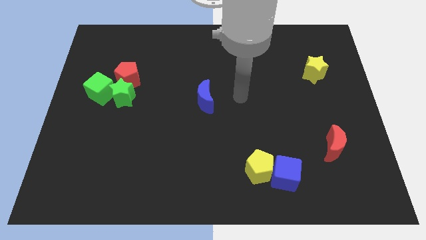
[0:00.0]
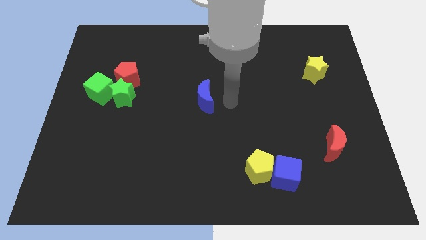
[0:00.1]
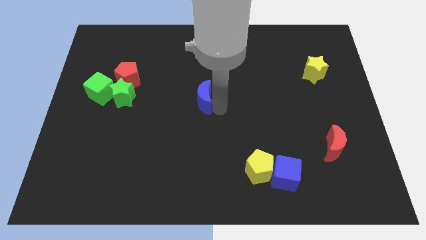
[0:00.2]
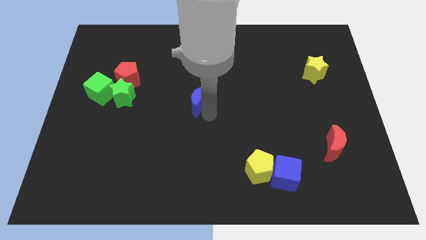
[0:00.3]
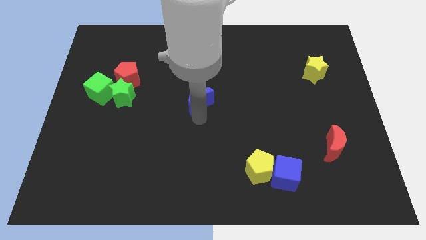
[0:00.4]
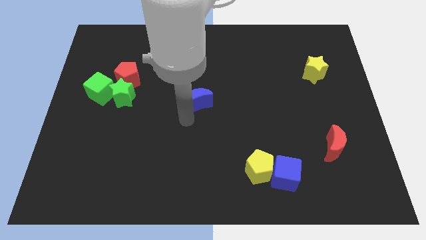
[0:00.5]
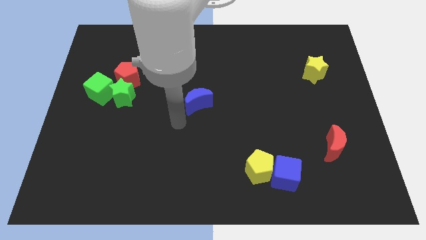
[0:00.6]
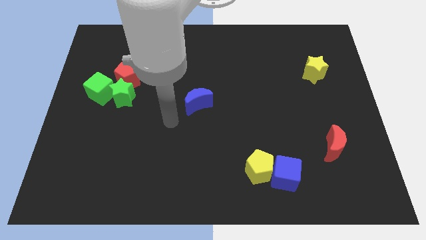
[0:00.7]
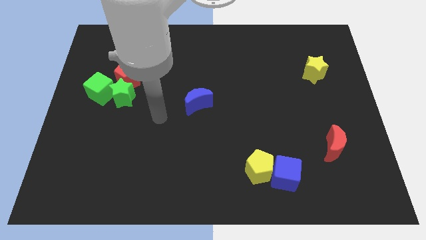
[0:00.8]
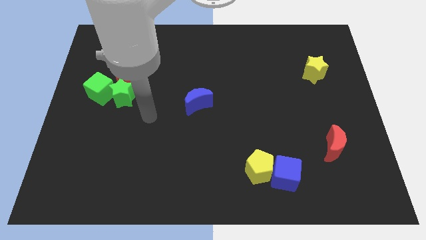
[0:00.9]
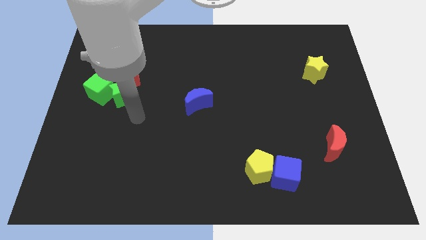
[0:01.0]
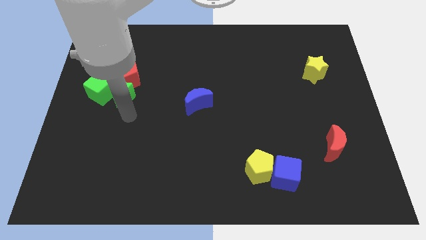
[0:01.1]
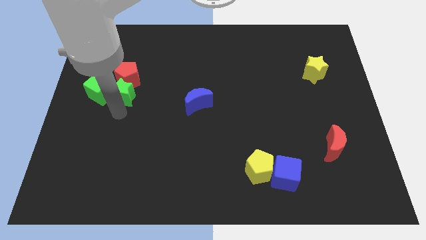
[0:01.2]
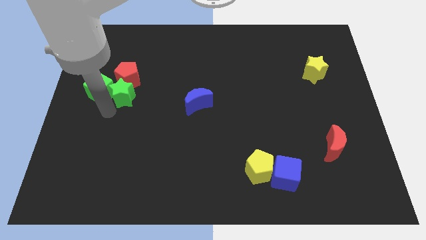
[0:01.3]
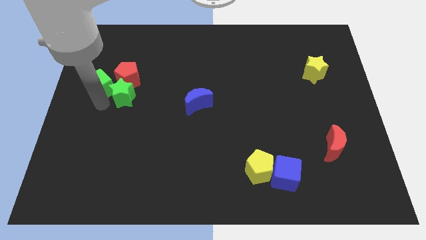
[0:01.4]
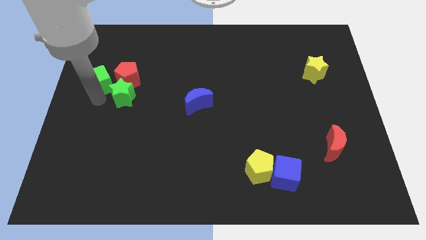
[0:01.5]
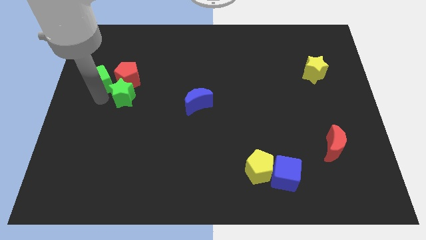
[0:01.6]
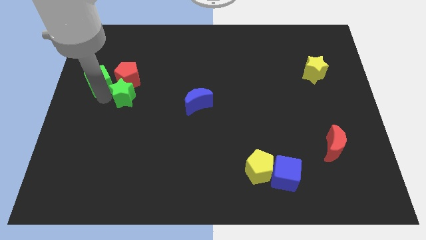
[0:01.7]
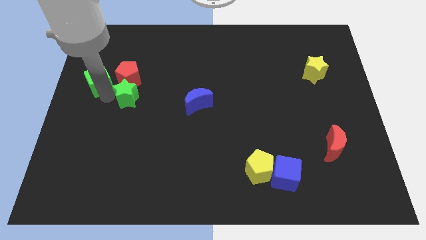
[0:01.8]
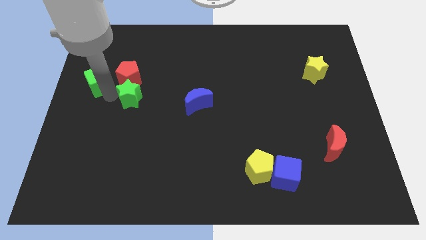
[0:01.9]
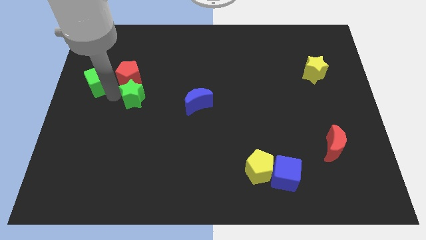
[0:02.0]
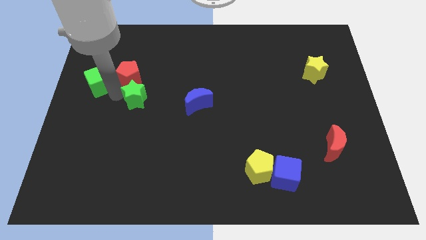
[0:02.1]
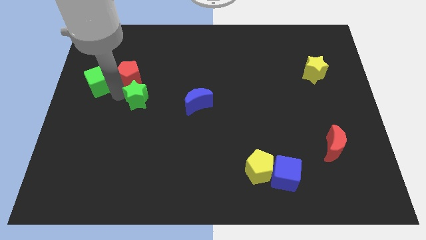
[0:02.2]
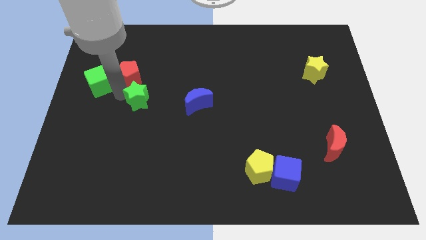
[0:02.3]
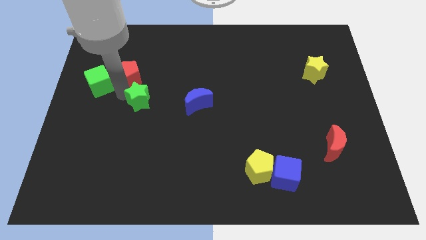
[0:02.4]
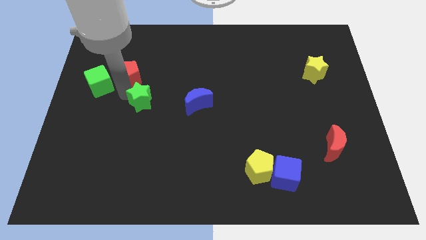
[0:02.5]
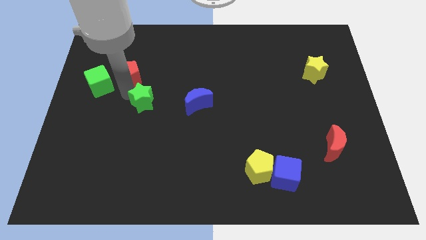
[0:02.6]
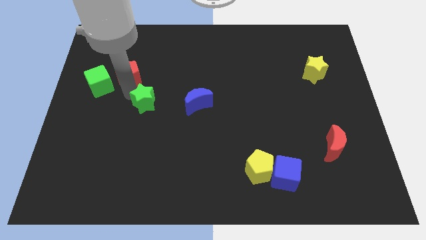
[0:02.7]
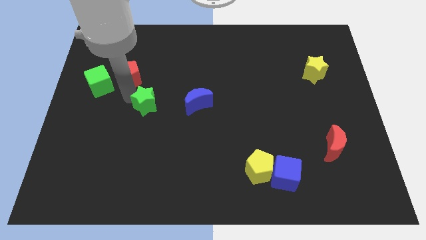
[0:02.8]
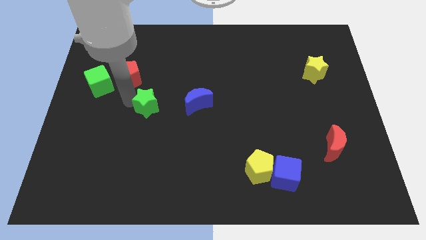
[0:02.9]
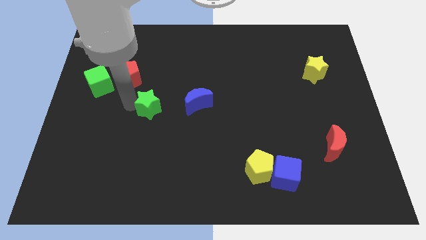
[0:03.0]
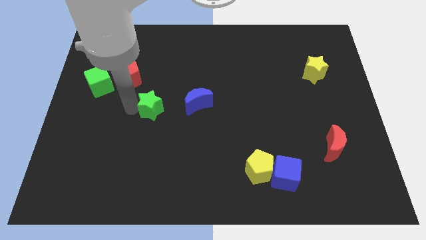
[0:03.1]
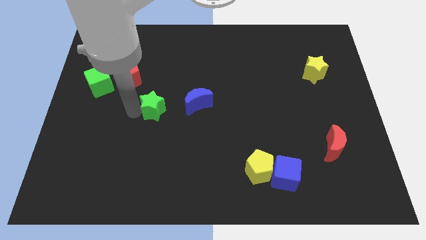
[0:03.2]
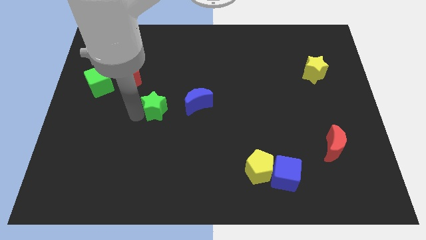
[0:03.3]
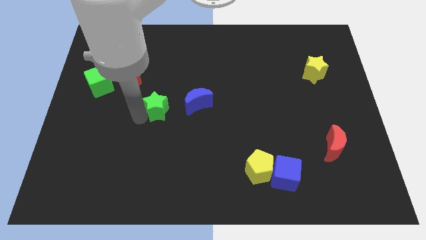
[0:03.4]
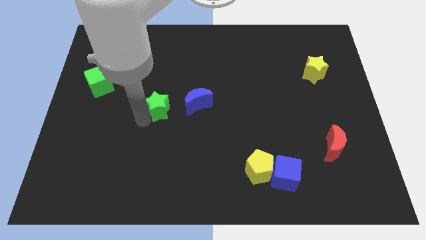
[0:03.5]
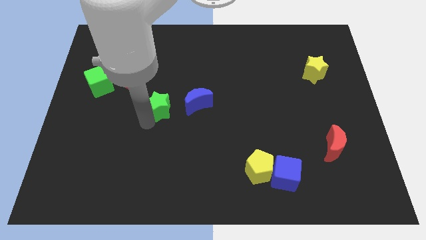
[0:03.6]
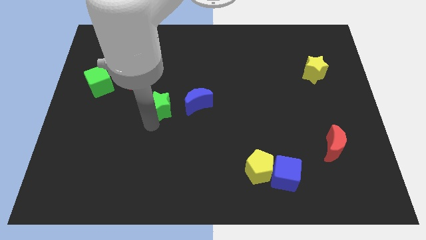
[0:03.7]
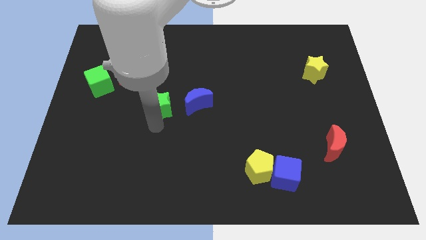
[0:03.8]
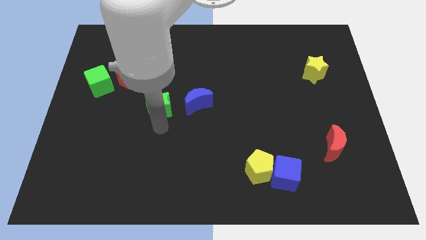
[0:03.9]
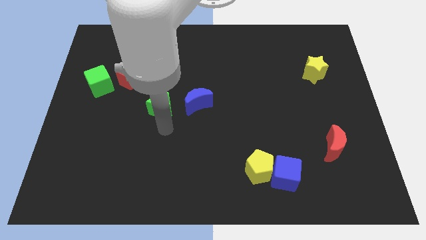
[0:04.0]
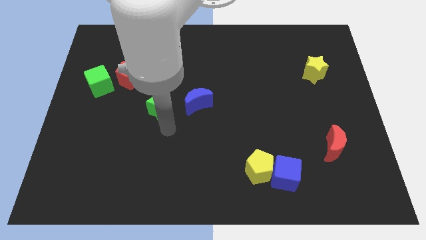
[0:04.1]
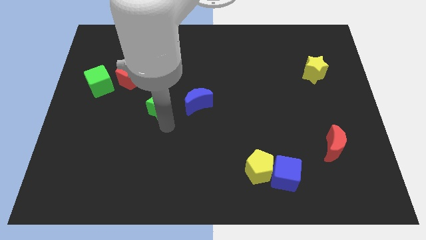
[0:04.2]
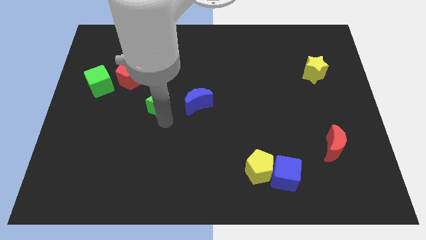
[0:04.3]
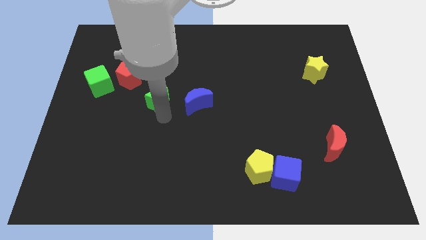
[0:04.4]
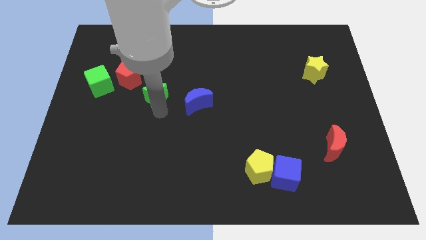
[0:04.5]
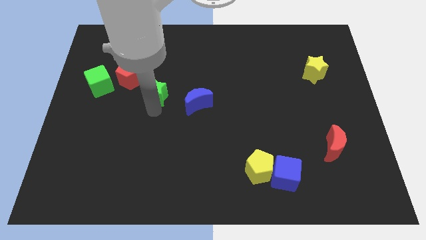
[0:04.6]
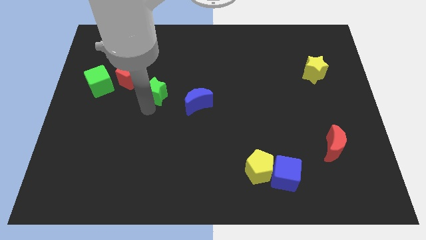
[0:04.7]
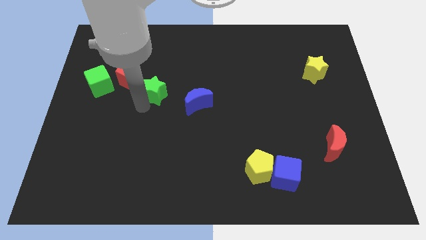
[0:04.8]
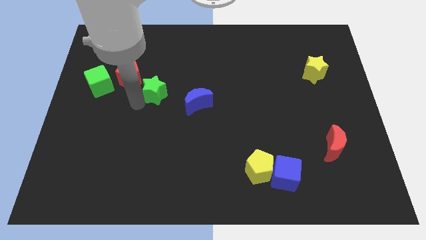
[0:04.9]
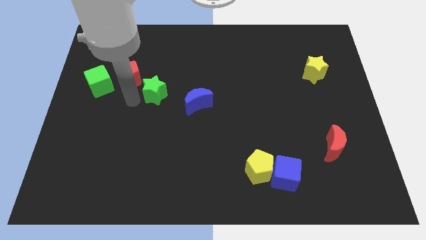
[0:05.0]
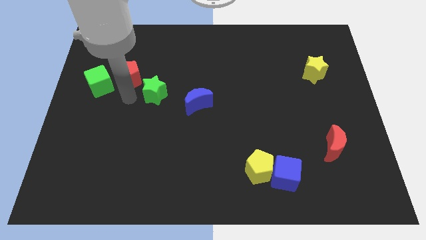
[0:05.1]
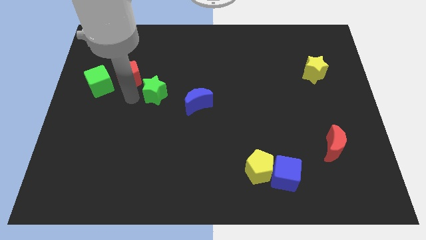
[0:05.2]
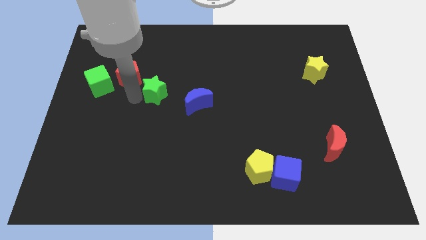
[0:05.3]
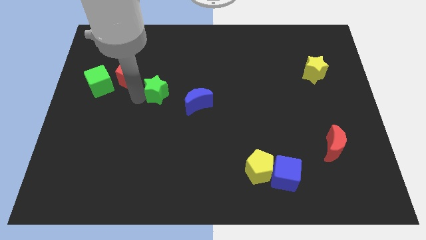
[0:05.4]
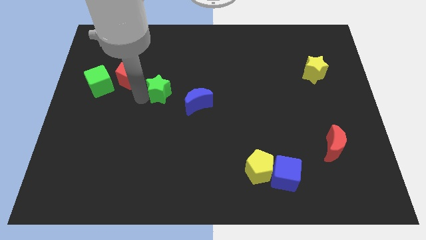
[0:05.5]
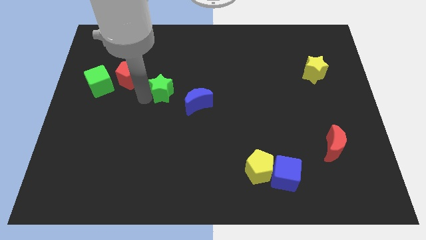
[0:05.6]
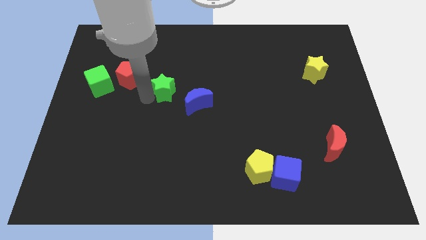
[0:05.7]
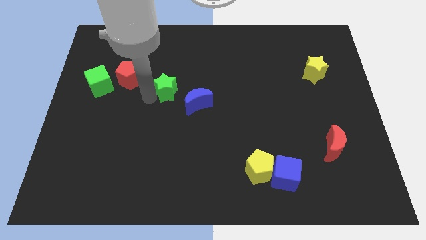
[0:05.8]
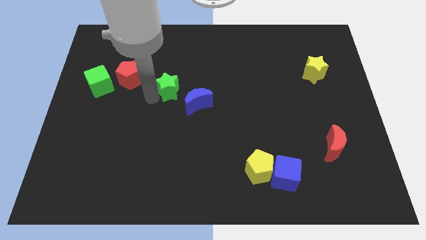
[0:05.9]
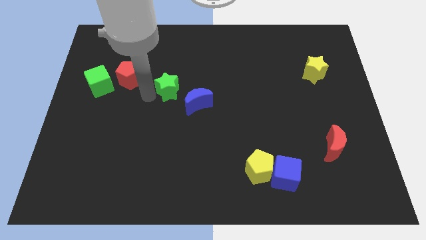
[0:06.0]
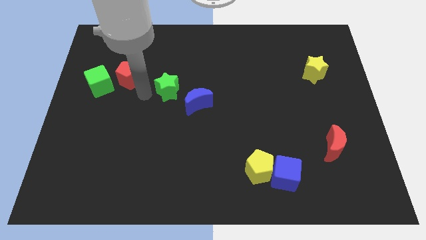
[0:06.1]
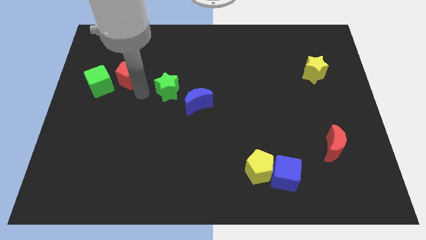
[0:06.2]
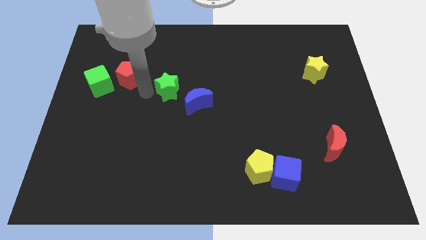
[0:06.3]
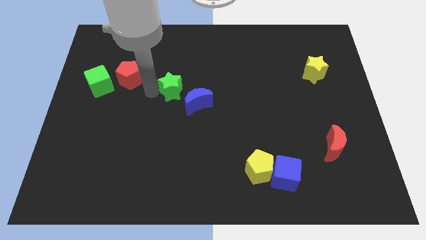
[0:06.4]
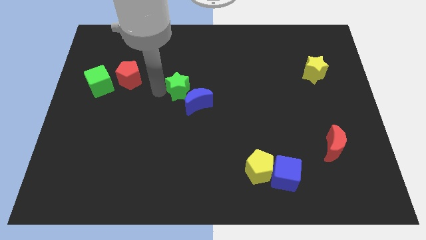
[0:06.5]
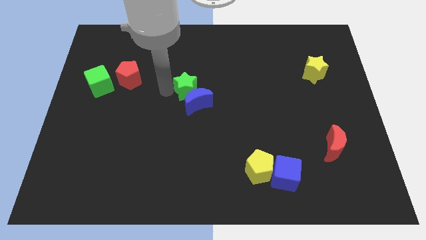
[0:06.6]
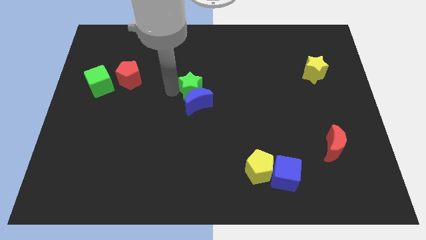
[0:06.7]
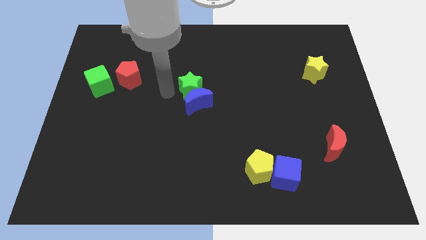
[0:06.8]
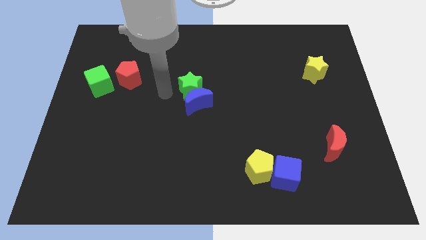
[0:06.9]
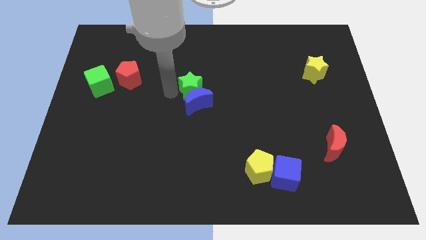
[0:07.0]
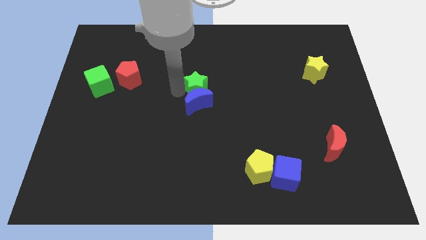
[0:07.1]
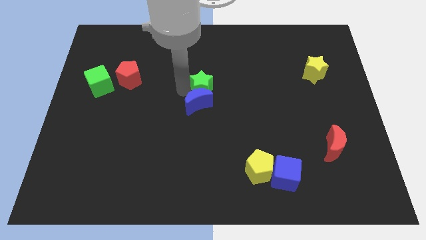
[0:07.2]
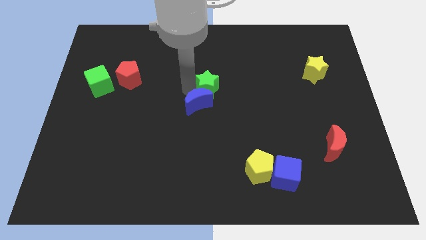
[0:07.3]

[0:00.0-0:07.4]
move the green star to the right

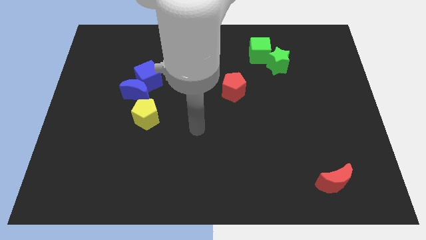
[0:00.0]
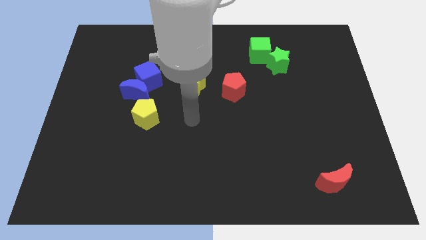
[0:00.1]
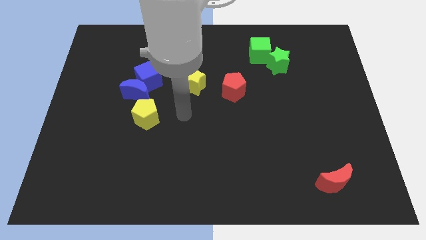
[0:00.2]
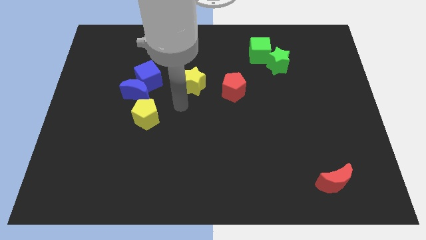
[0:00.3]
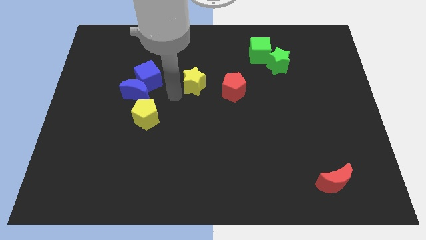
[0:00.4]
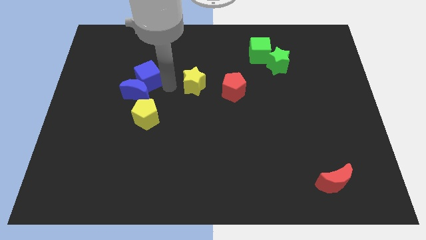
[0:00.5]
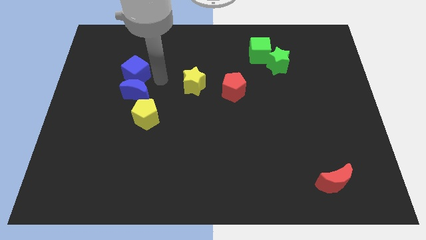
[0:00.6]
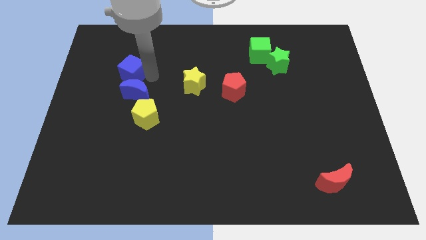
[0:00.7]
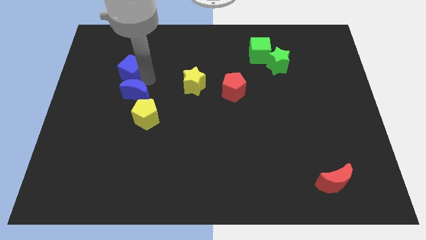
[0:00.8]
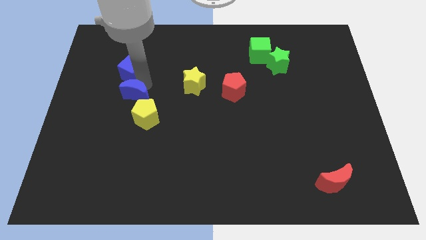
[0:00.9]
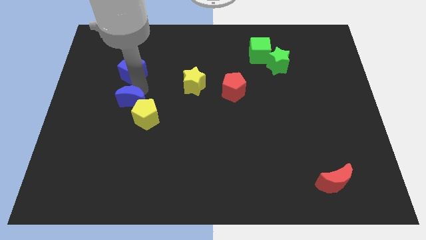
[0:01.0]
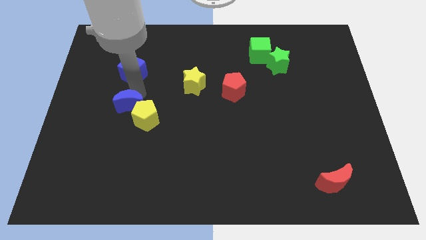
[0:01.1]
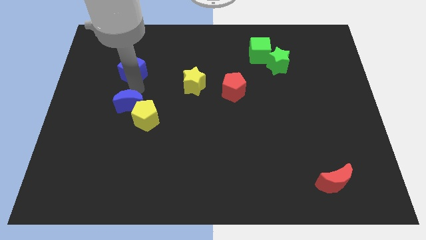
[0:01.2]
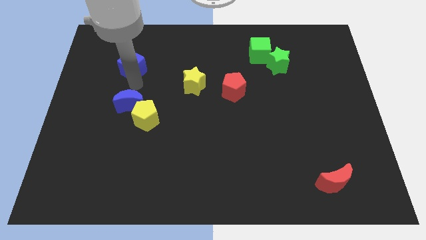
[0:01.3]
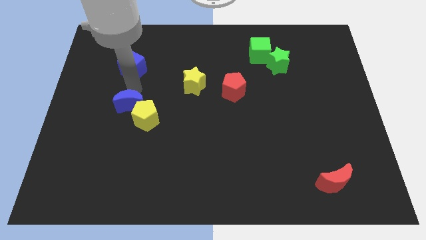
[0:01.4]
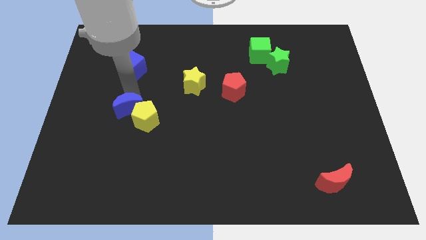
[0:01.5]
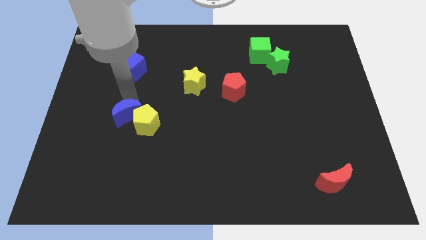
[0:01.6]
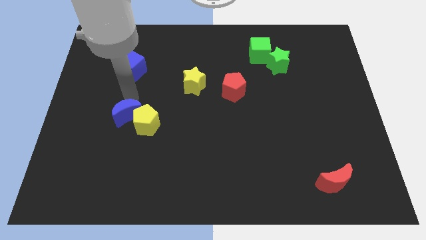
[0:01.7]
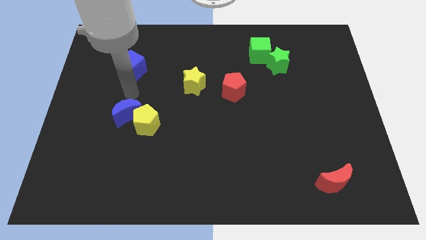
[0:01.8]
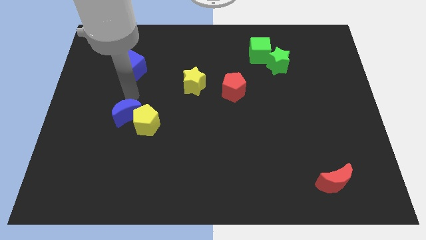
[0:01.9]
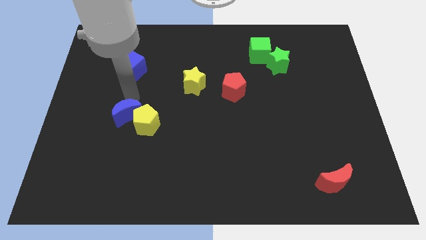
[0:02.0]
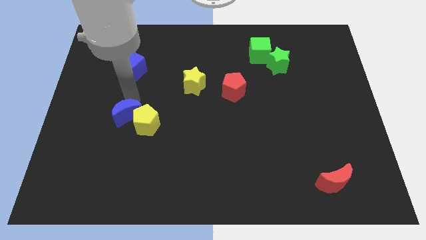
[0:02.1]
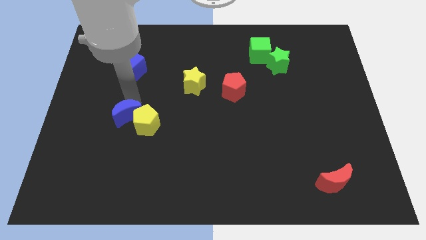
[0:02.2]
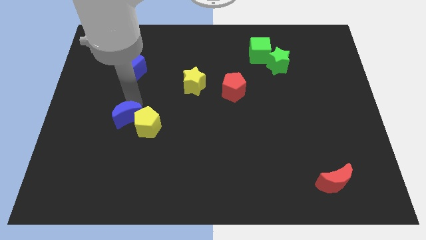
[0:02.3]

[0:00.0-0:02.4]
slide the blue moon down slightly
